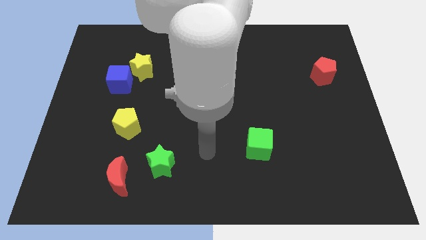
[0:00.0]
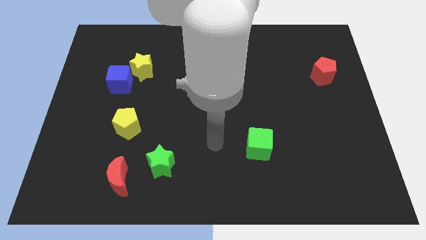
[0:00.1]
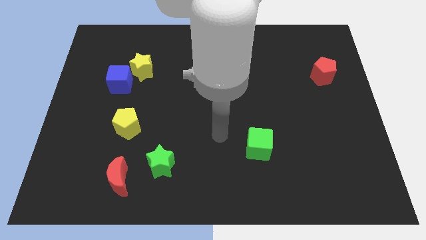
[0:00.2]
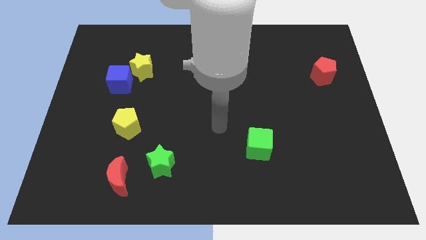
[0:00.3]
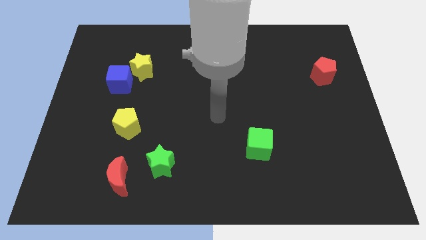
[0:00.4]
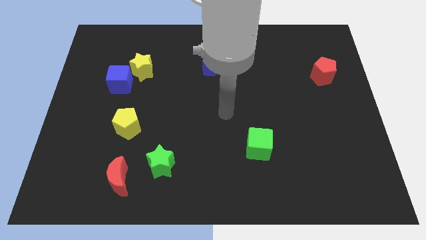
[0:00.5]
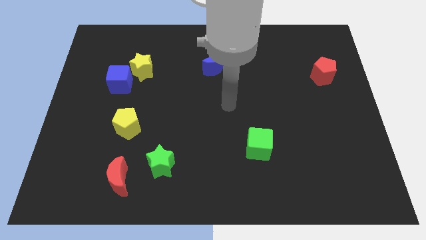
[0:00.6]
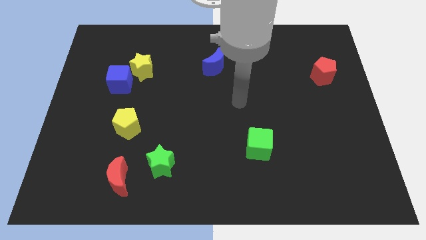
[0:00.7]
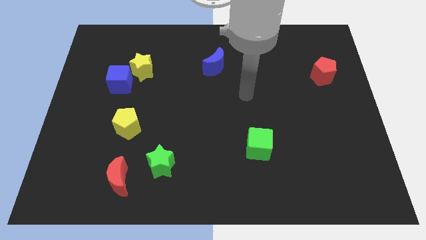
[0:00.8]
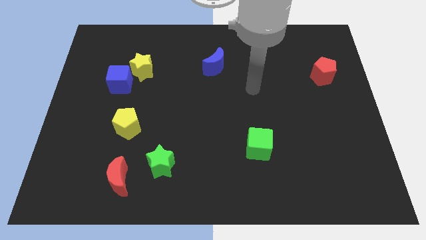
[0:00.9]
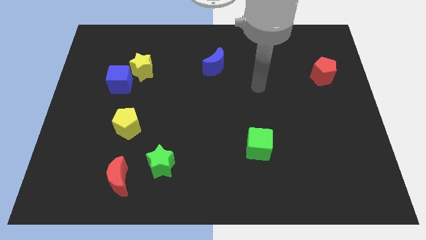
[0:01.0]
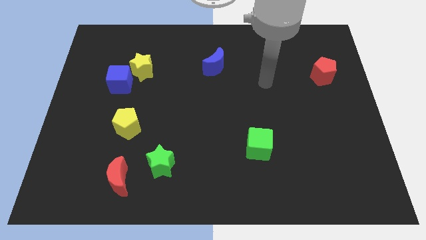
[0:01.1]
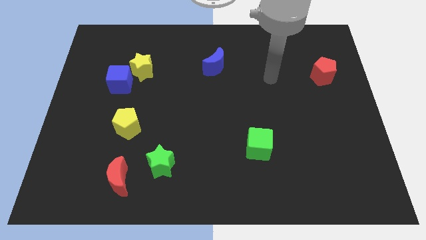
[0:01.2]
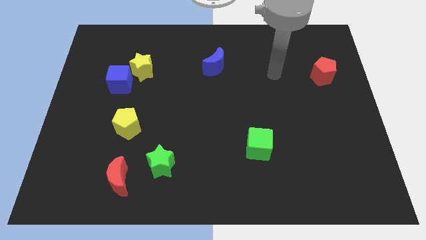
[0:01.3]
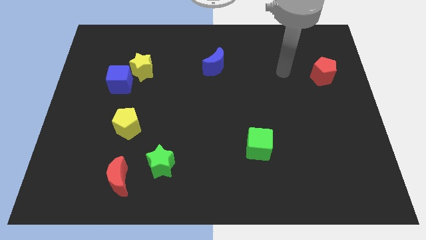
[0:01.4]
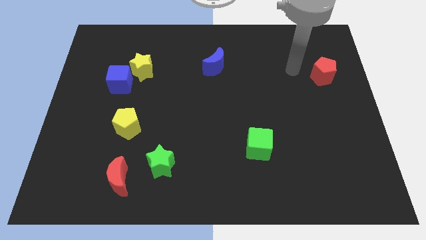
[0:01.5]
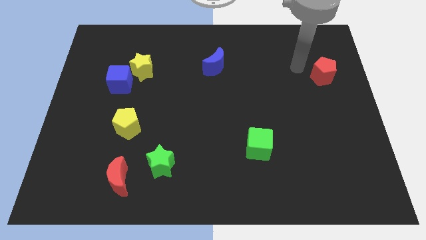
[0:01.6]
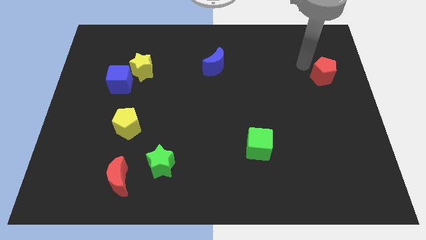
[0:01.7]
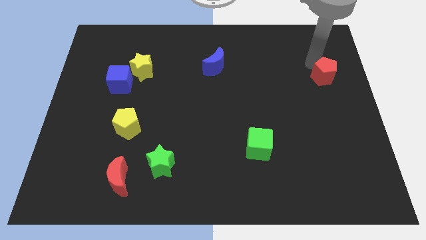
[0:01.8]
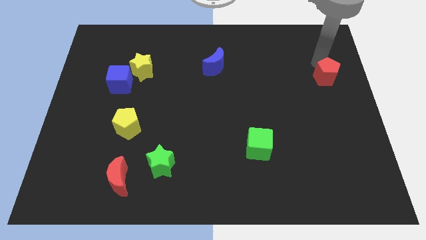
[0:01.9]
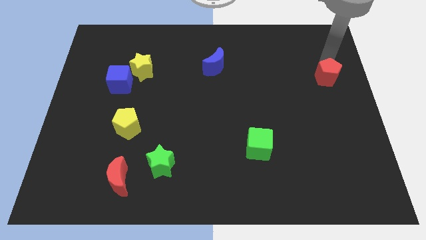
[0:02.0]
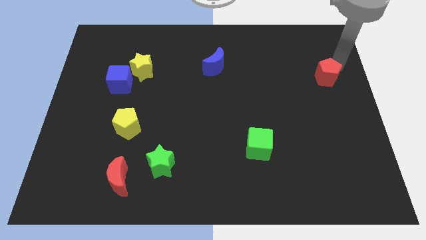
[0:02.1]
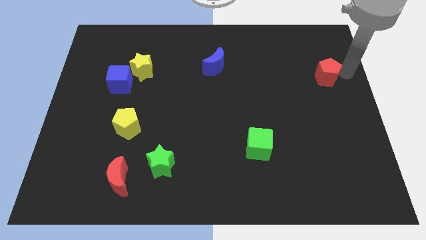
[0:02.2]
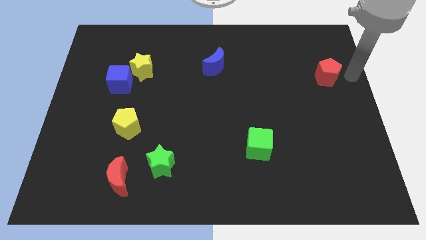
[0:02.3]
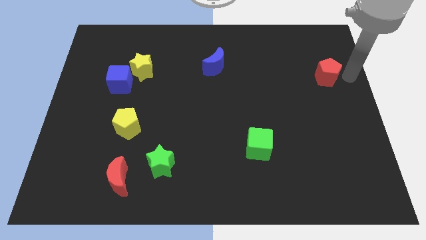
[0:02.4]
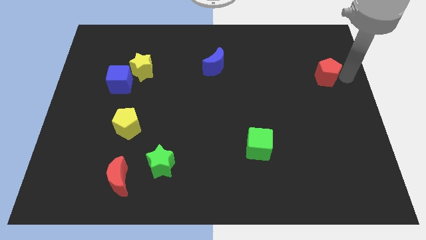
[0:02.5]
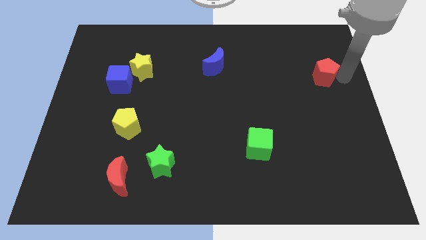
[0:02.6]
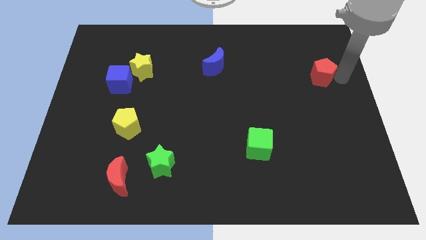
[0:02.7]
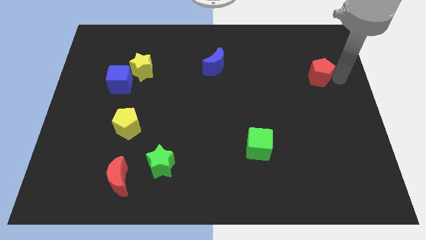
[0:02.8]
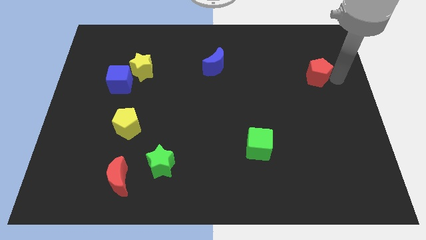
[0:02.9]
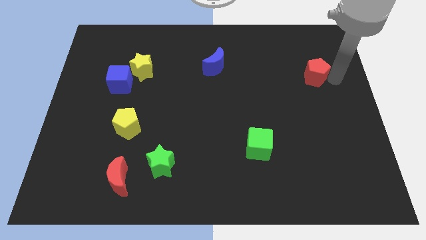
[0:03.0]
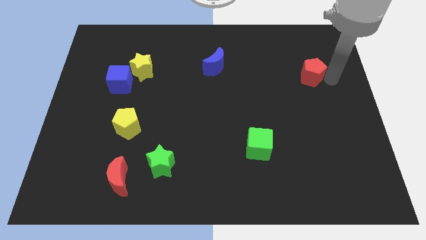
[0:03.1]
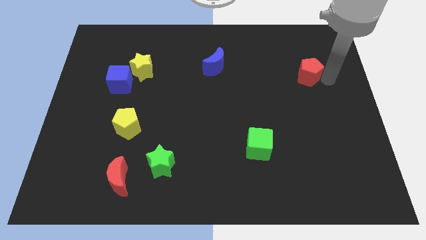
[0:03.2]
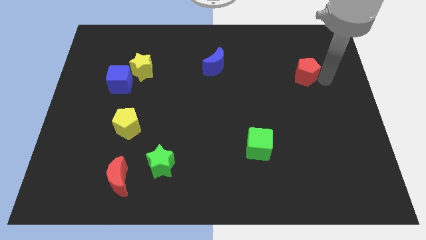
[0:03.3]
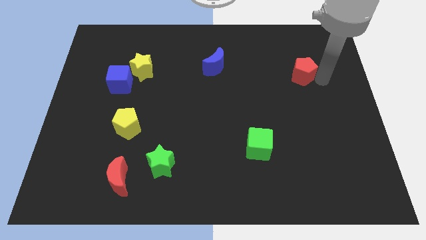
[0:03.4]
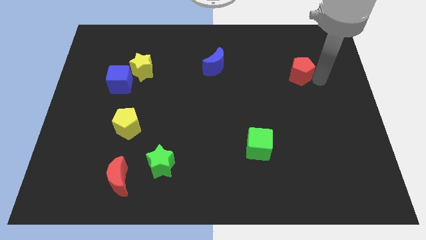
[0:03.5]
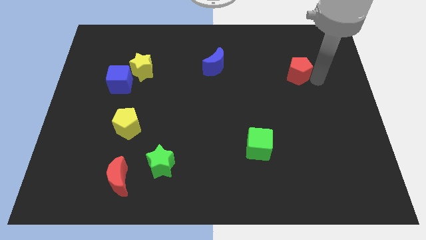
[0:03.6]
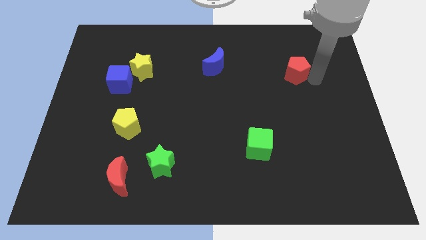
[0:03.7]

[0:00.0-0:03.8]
move the red pentagon to the left somewhat

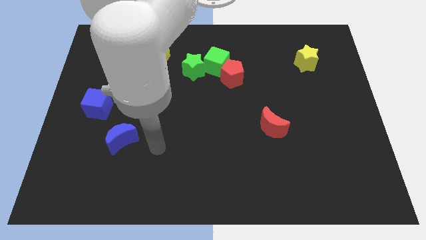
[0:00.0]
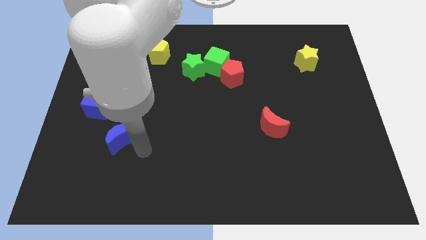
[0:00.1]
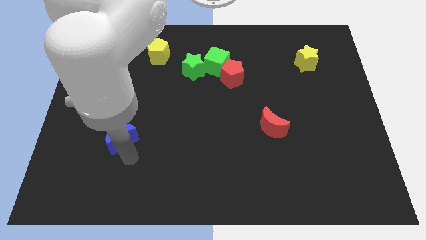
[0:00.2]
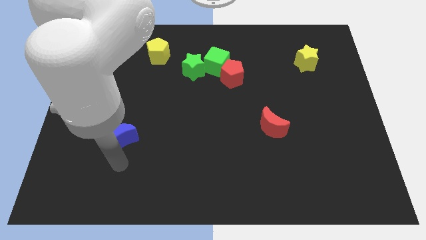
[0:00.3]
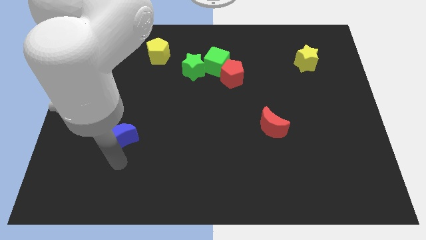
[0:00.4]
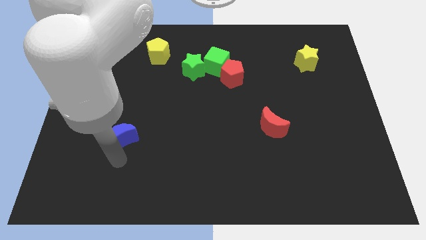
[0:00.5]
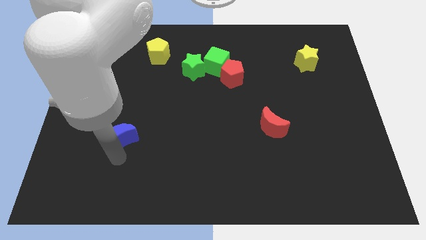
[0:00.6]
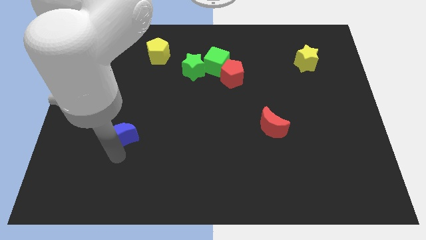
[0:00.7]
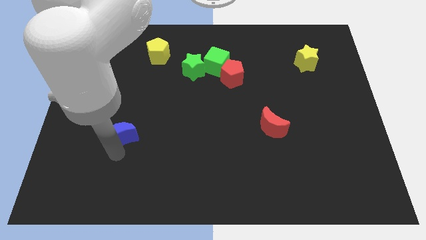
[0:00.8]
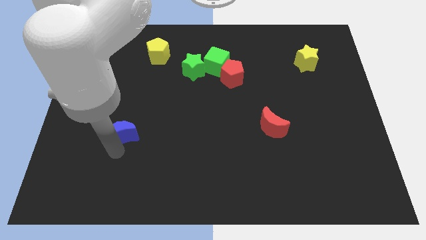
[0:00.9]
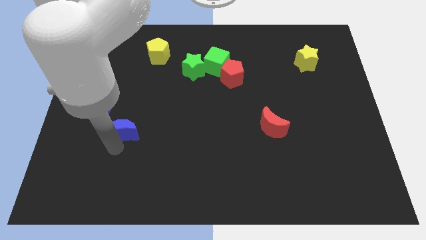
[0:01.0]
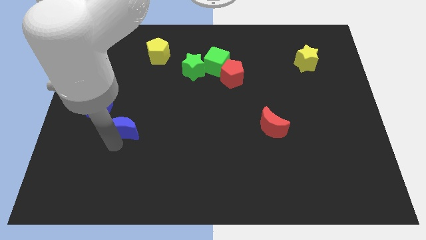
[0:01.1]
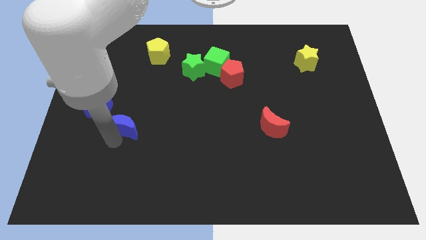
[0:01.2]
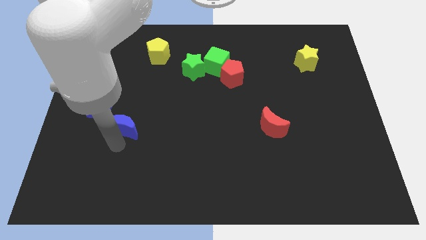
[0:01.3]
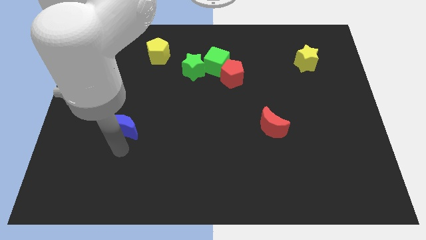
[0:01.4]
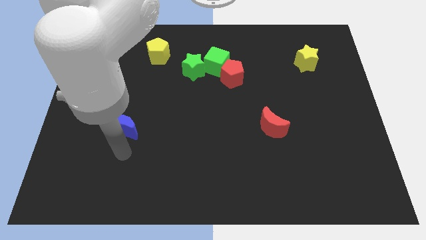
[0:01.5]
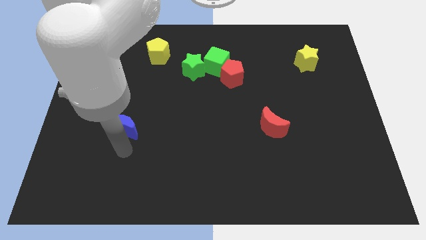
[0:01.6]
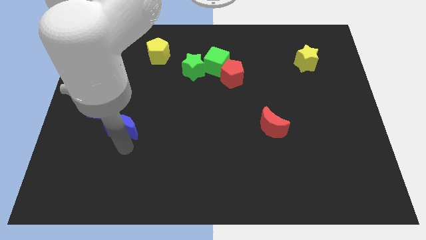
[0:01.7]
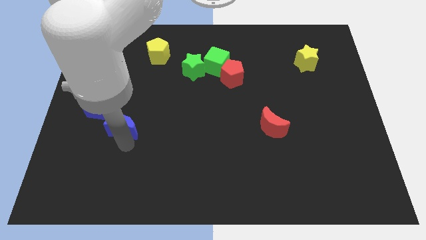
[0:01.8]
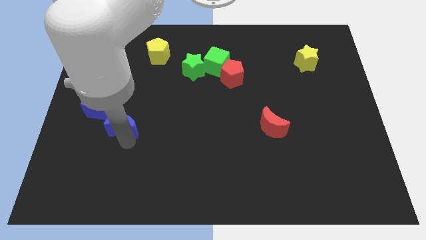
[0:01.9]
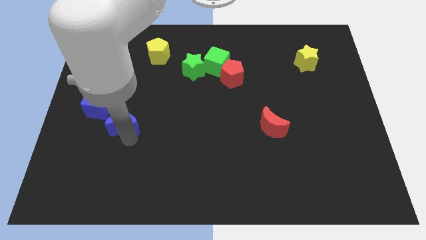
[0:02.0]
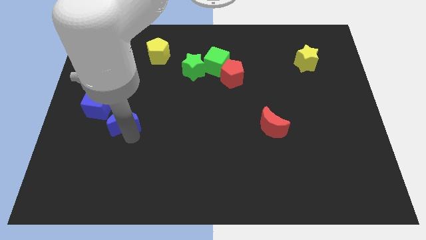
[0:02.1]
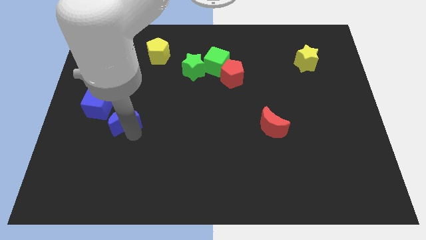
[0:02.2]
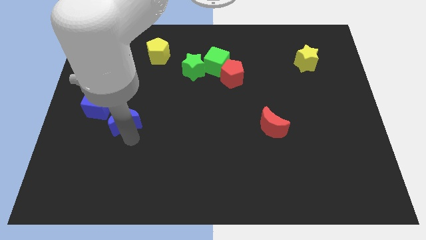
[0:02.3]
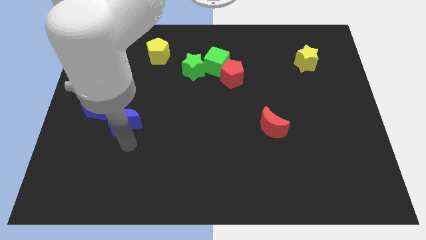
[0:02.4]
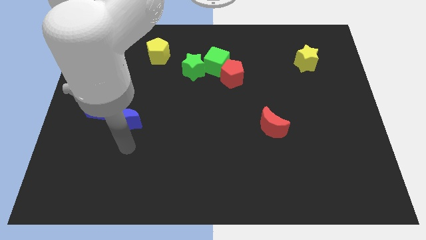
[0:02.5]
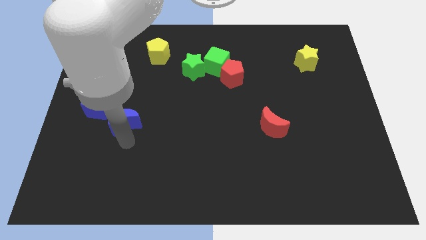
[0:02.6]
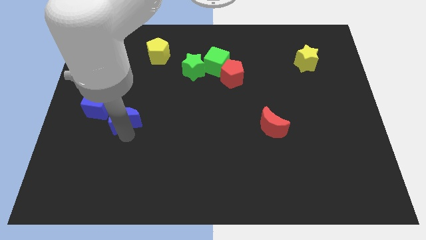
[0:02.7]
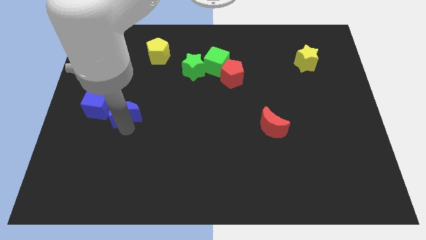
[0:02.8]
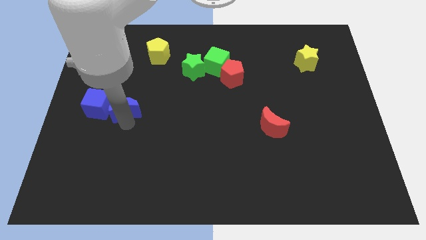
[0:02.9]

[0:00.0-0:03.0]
slide the blue moon a bit up

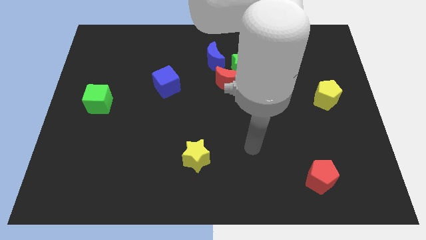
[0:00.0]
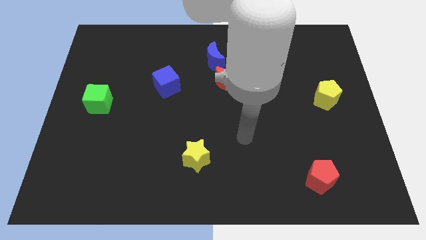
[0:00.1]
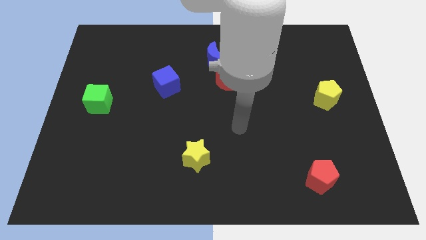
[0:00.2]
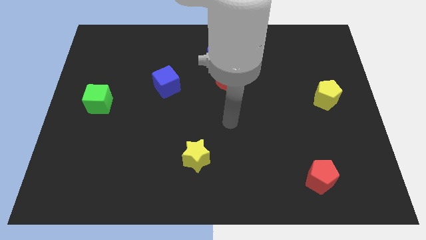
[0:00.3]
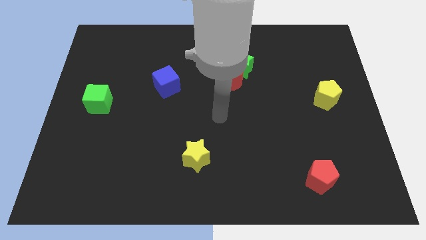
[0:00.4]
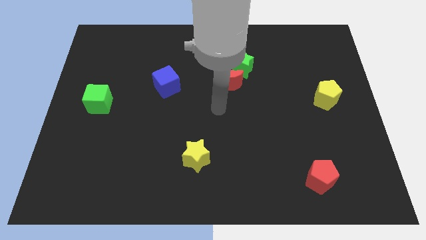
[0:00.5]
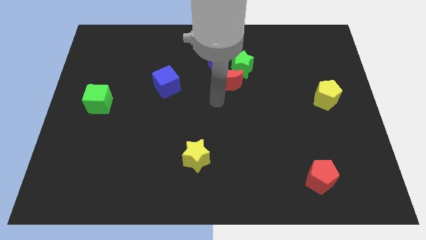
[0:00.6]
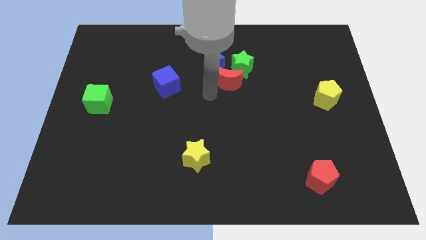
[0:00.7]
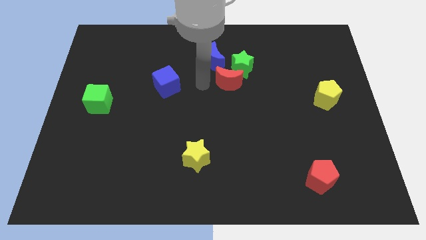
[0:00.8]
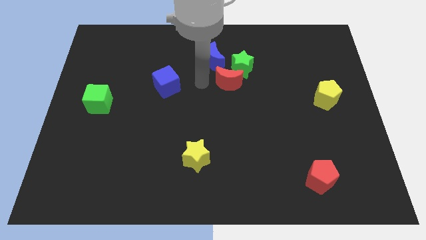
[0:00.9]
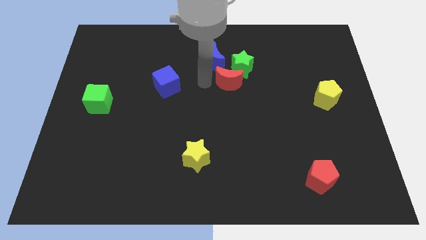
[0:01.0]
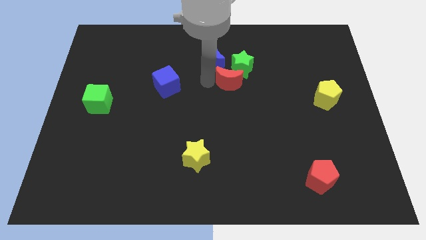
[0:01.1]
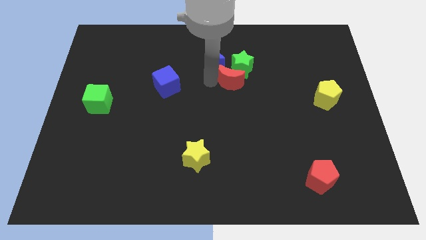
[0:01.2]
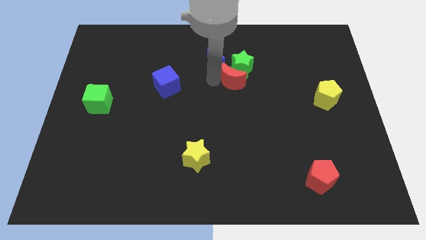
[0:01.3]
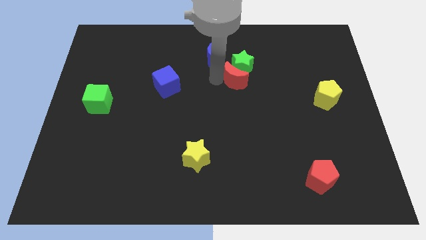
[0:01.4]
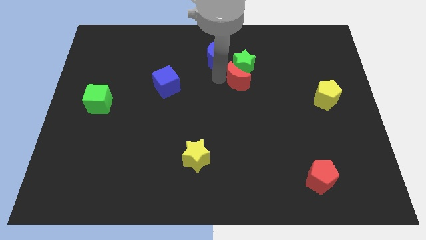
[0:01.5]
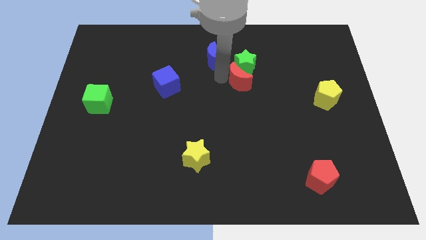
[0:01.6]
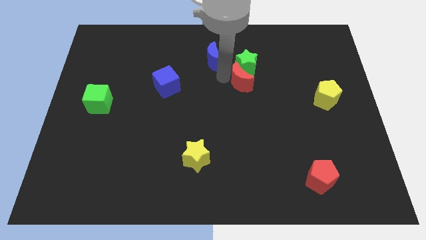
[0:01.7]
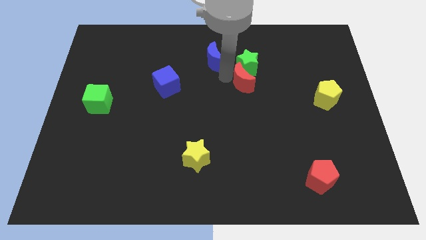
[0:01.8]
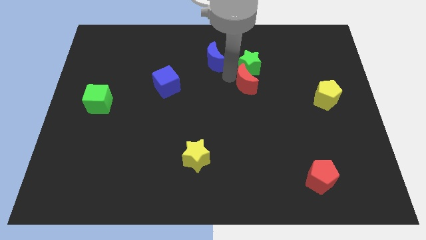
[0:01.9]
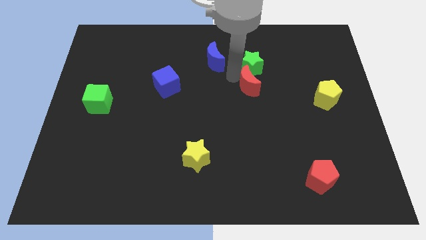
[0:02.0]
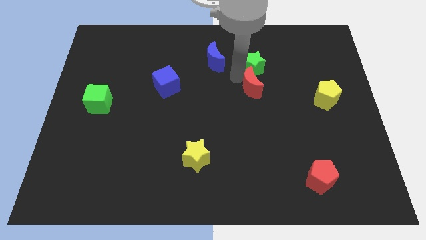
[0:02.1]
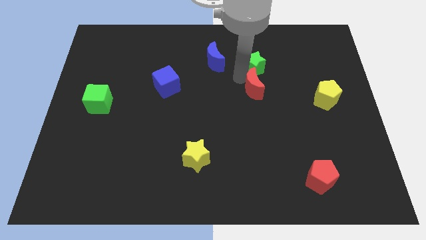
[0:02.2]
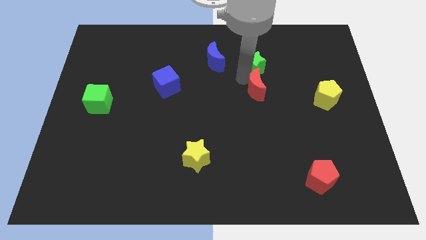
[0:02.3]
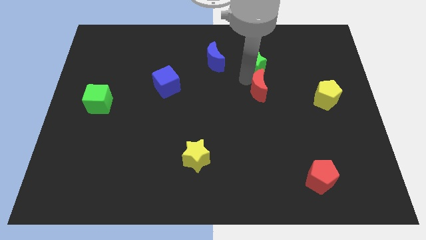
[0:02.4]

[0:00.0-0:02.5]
push the red moon a little right
